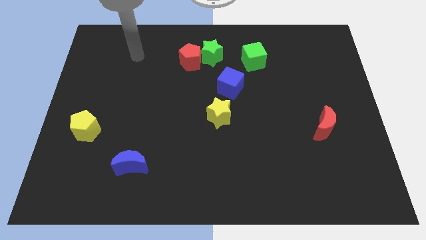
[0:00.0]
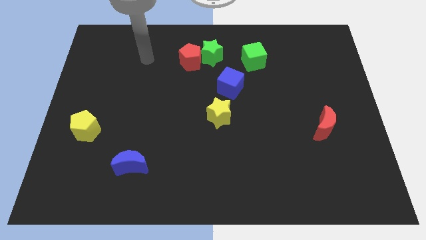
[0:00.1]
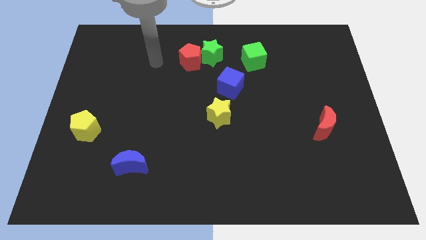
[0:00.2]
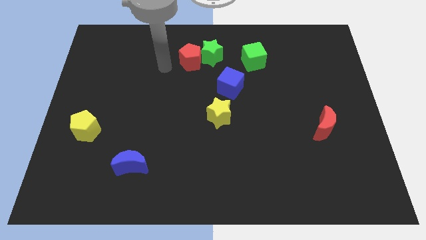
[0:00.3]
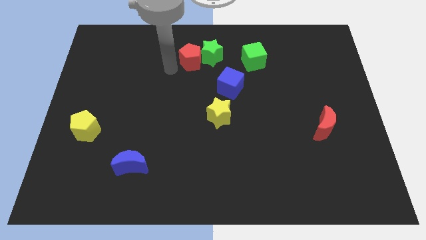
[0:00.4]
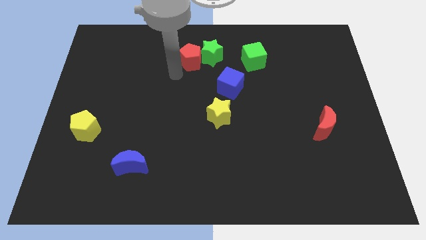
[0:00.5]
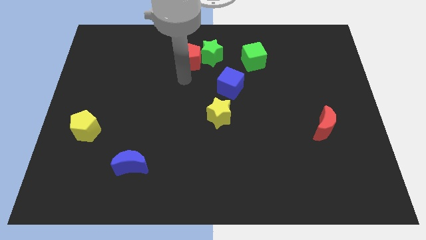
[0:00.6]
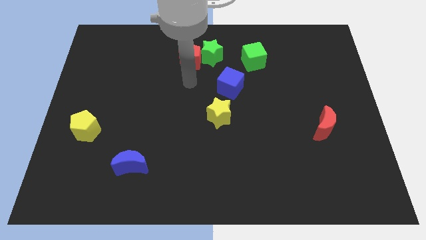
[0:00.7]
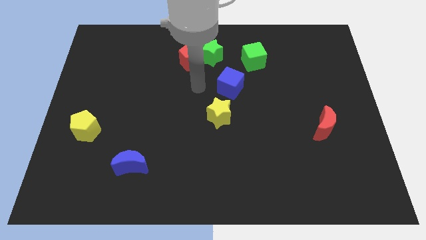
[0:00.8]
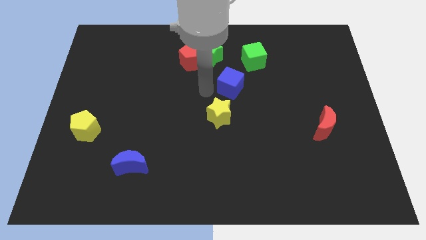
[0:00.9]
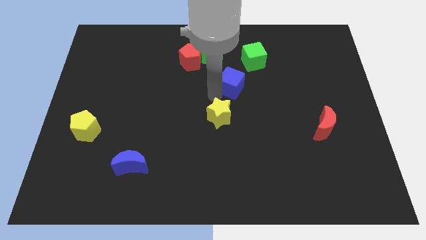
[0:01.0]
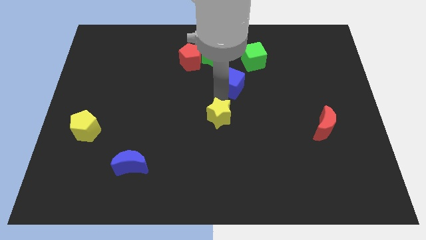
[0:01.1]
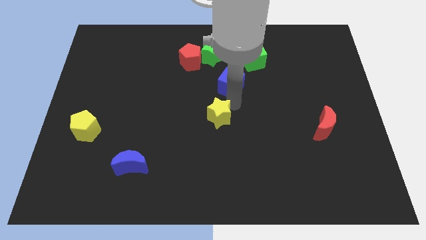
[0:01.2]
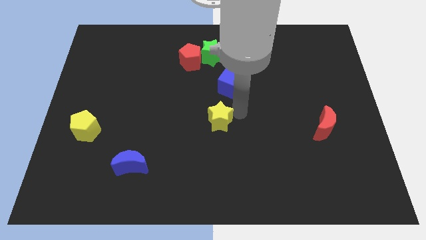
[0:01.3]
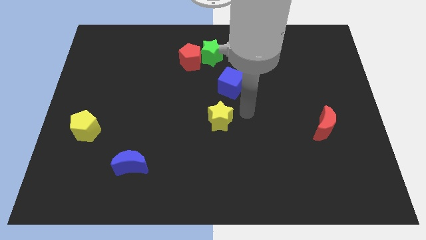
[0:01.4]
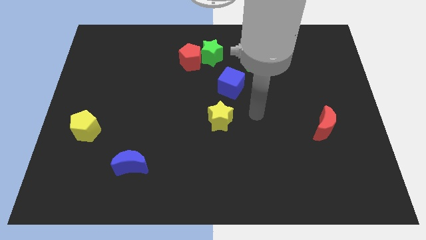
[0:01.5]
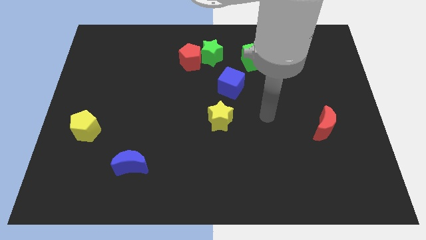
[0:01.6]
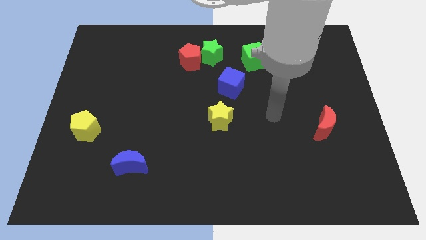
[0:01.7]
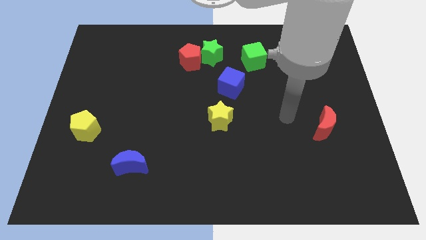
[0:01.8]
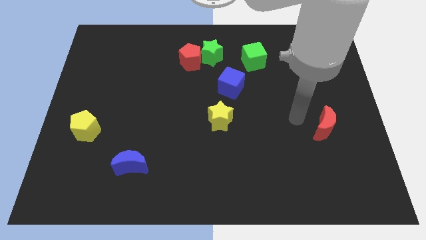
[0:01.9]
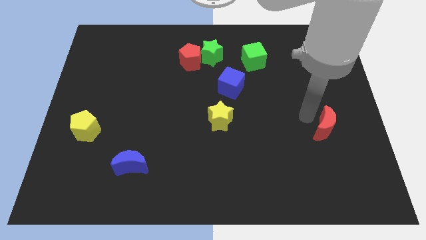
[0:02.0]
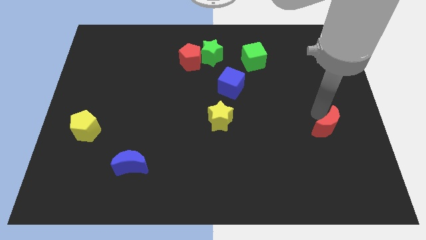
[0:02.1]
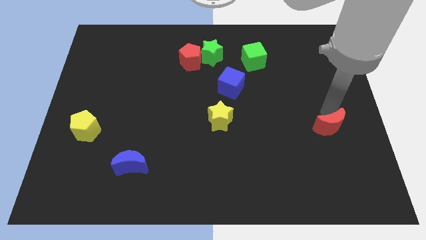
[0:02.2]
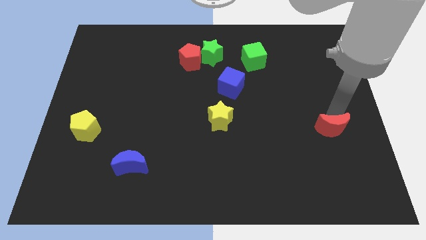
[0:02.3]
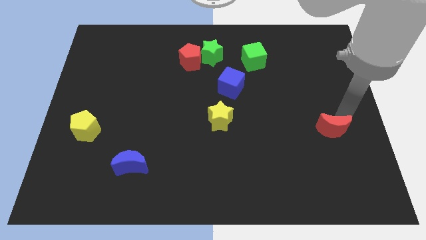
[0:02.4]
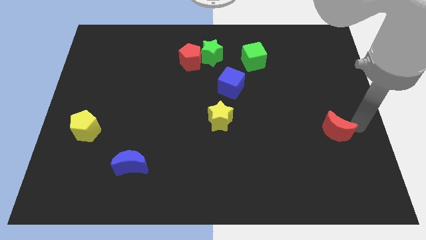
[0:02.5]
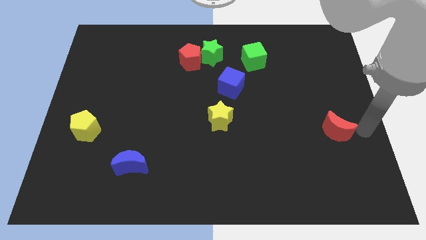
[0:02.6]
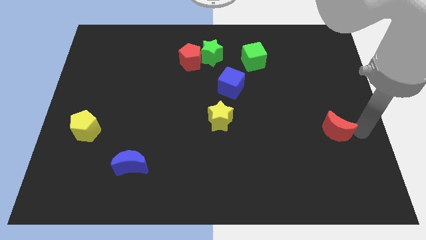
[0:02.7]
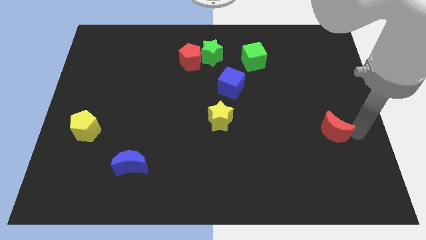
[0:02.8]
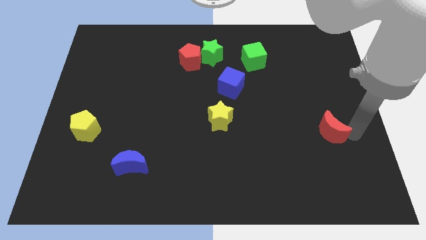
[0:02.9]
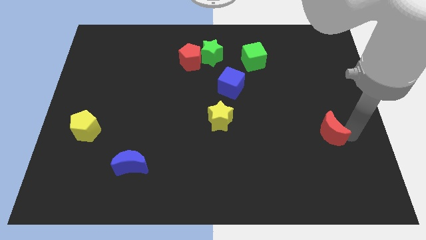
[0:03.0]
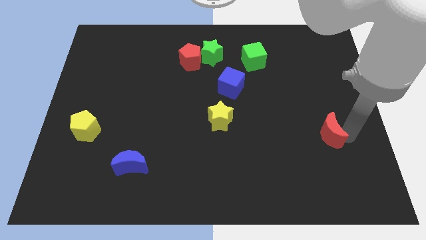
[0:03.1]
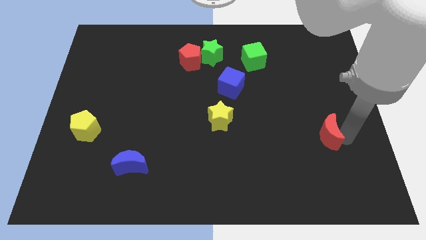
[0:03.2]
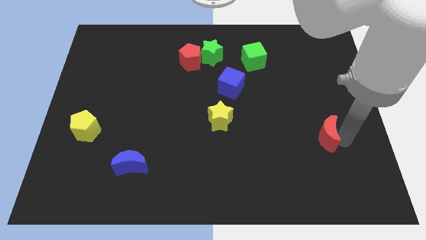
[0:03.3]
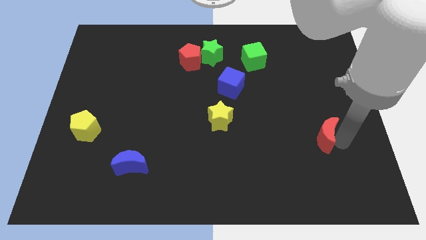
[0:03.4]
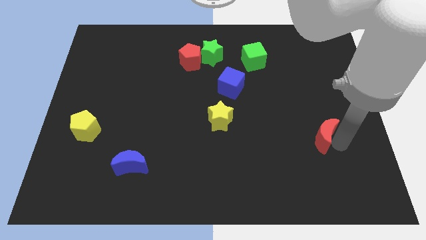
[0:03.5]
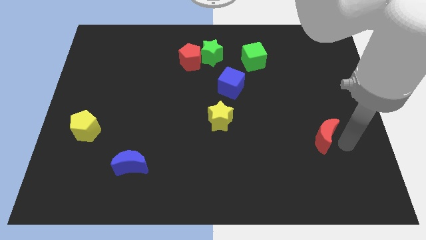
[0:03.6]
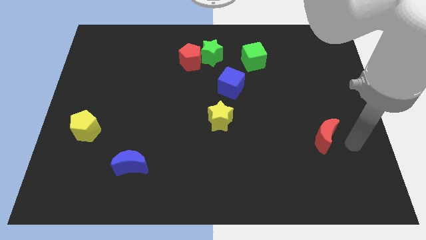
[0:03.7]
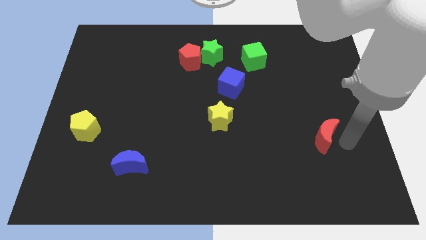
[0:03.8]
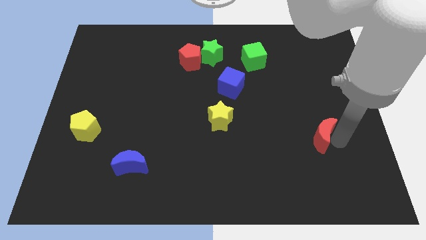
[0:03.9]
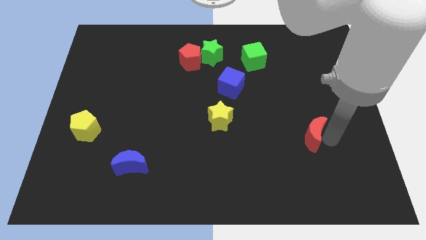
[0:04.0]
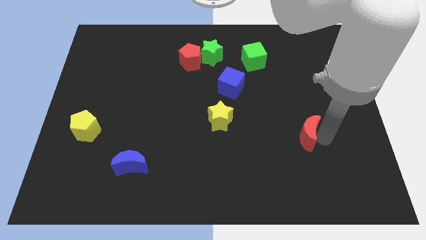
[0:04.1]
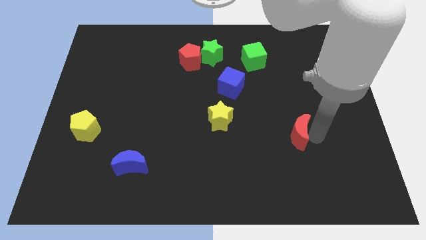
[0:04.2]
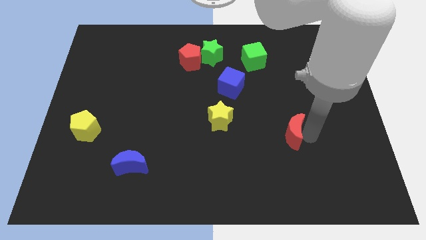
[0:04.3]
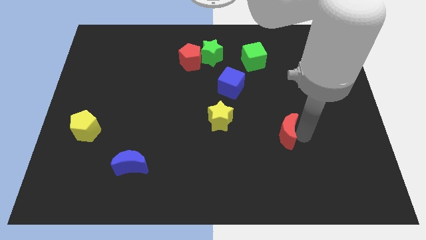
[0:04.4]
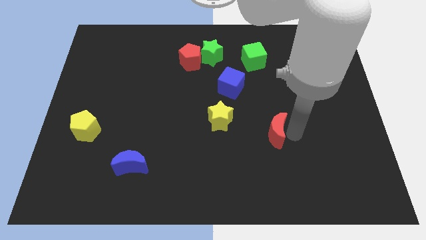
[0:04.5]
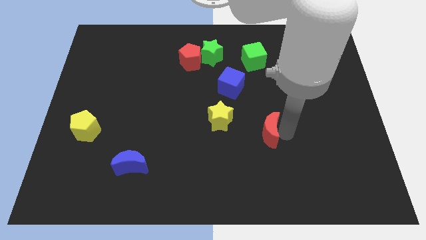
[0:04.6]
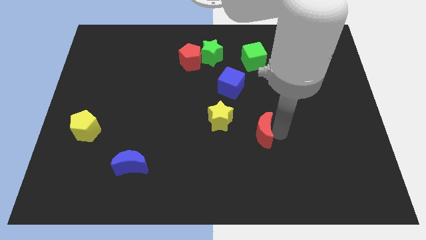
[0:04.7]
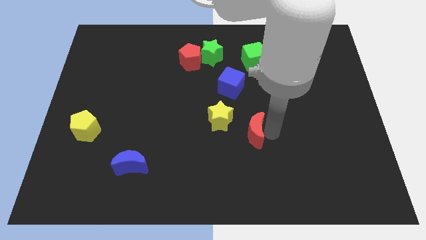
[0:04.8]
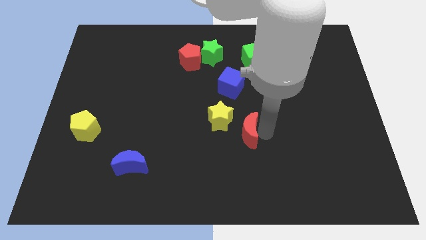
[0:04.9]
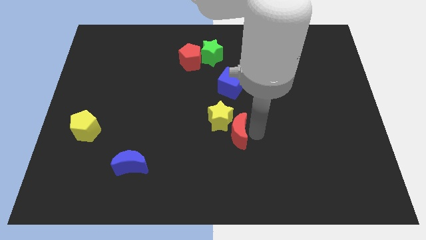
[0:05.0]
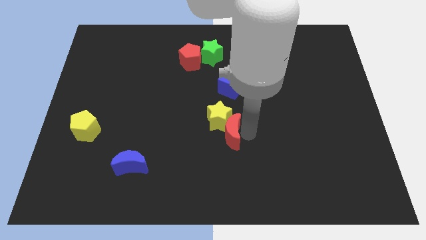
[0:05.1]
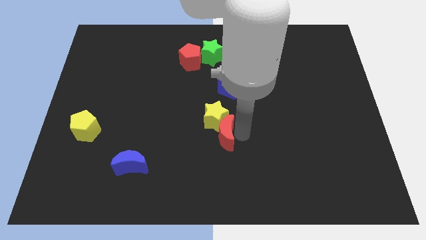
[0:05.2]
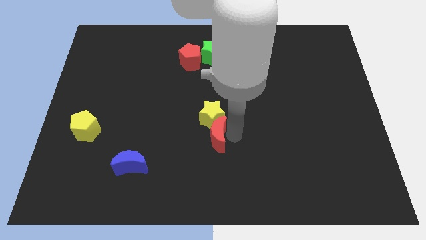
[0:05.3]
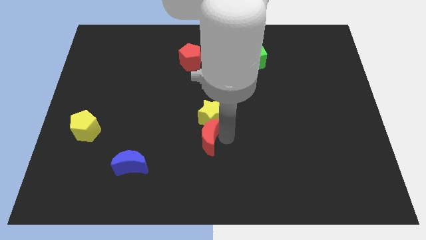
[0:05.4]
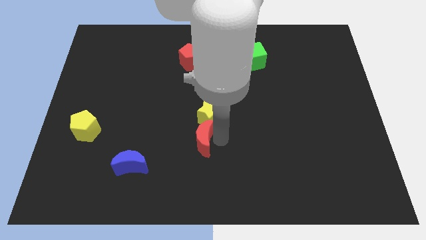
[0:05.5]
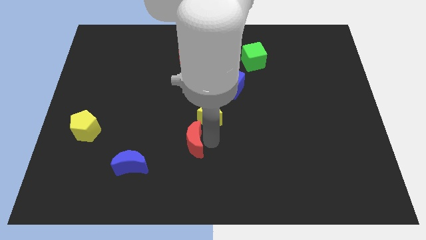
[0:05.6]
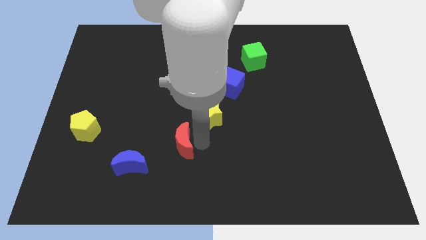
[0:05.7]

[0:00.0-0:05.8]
slide the red moon diagonally up and to the right of the blue moon
